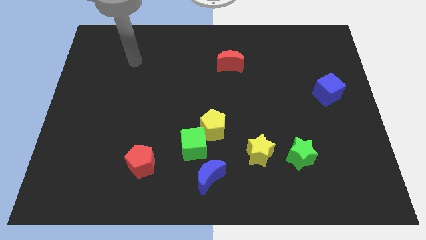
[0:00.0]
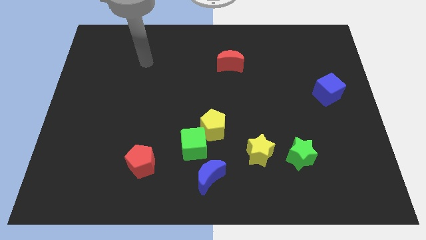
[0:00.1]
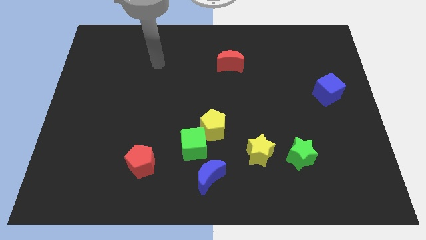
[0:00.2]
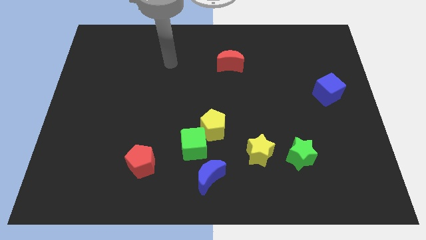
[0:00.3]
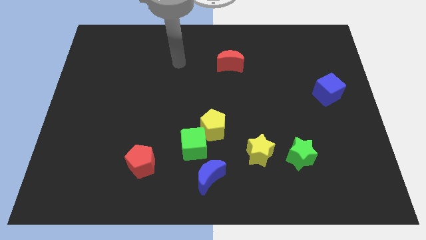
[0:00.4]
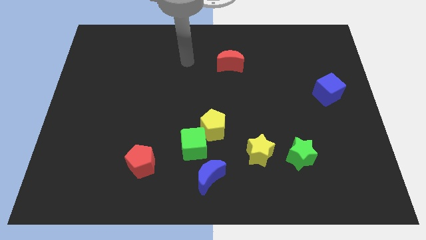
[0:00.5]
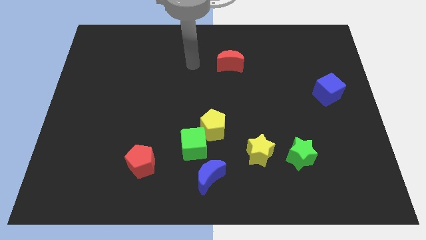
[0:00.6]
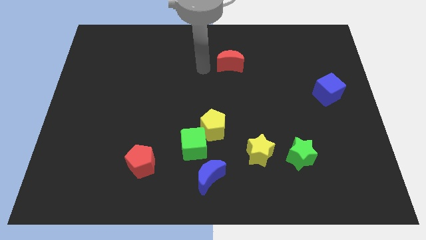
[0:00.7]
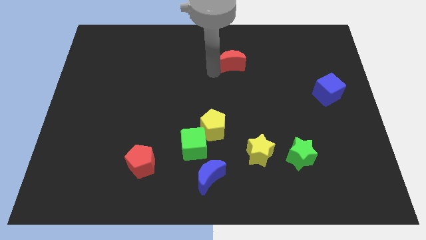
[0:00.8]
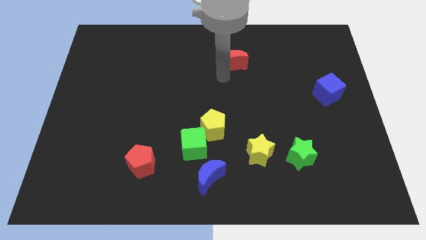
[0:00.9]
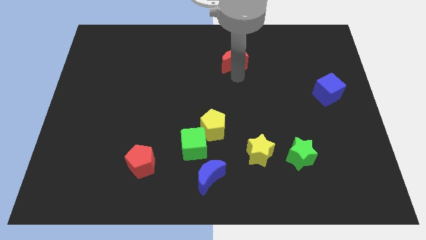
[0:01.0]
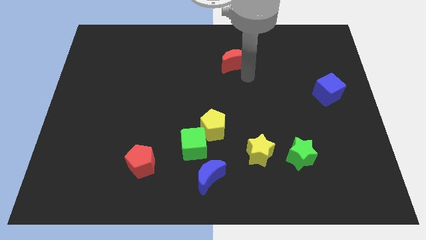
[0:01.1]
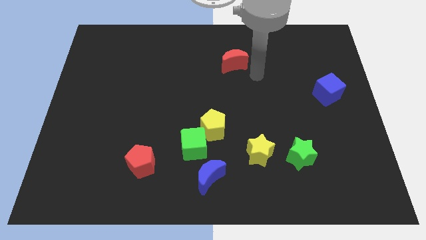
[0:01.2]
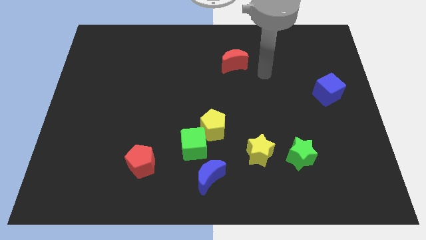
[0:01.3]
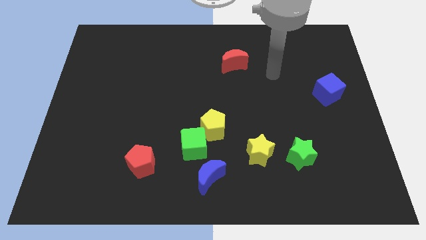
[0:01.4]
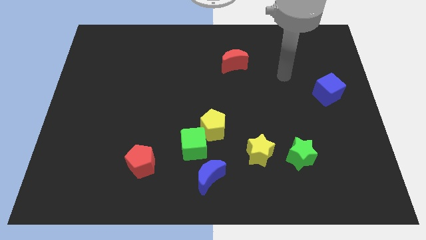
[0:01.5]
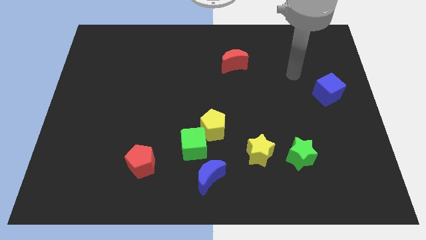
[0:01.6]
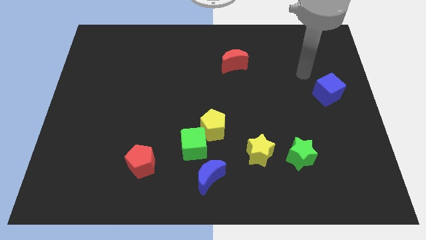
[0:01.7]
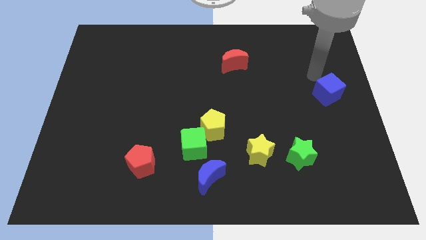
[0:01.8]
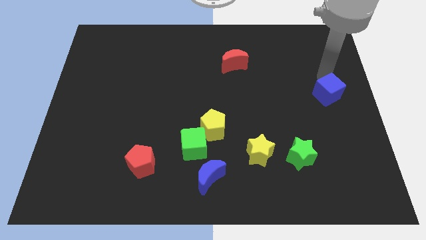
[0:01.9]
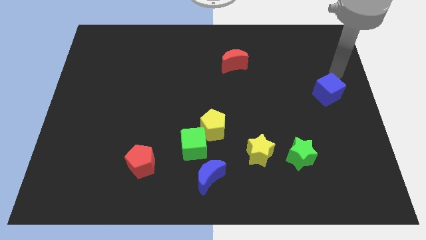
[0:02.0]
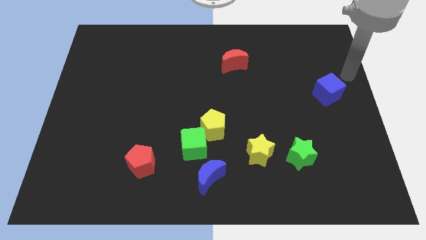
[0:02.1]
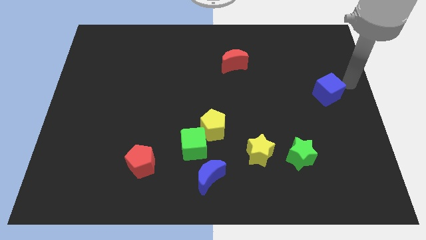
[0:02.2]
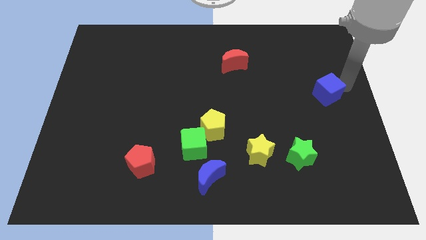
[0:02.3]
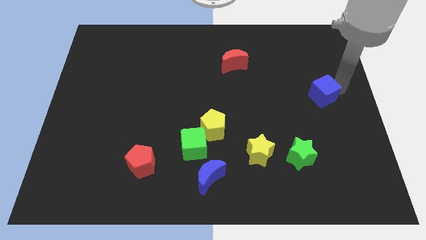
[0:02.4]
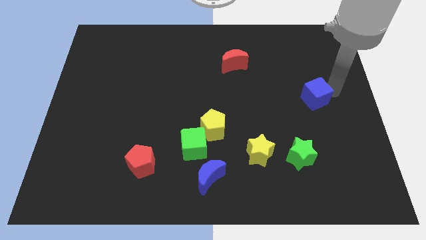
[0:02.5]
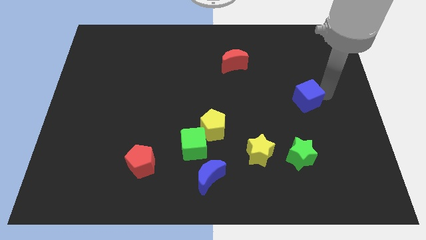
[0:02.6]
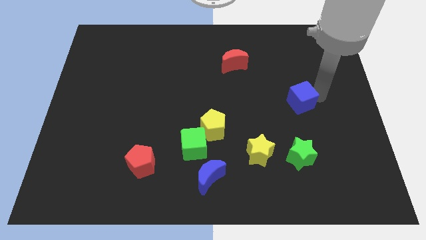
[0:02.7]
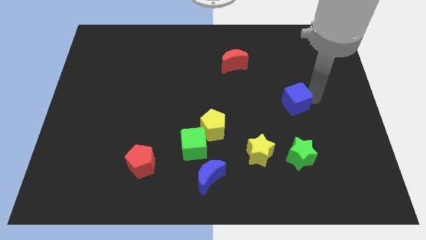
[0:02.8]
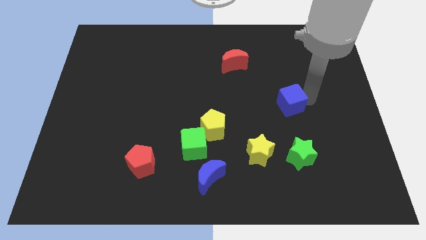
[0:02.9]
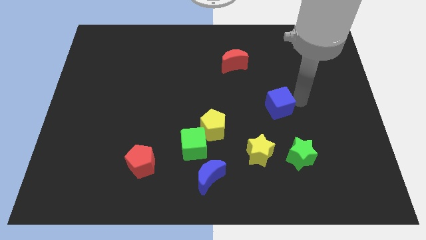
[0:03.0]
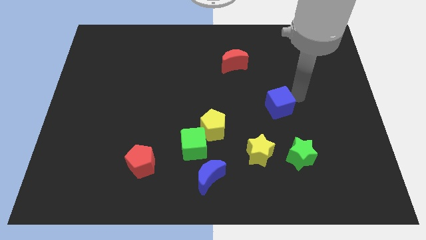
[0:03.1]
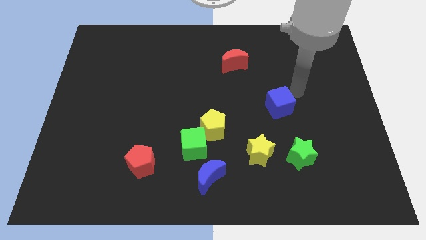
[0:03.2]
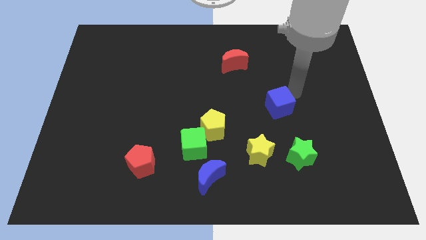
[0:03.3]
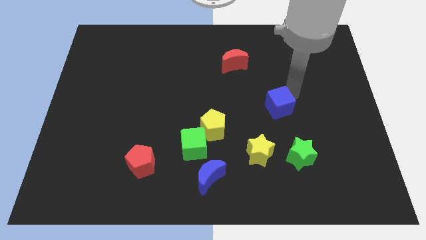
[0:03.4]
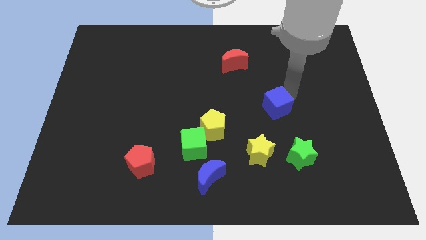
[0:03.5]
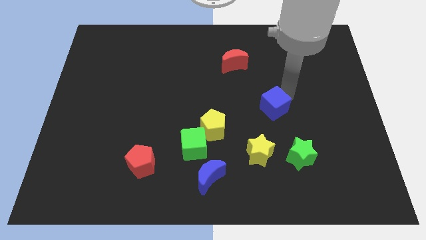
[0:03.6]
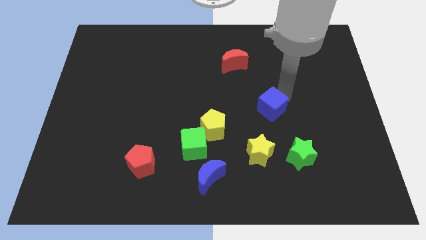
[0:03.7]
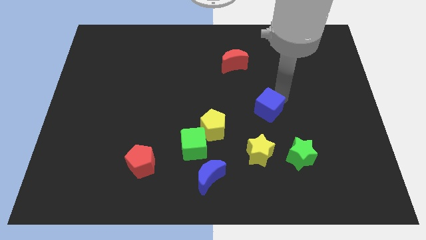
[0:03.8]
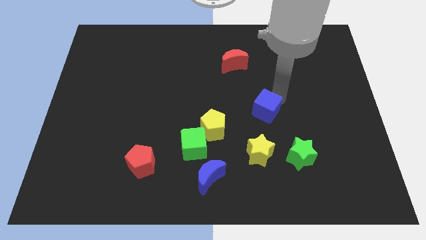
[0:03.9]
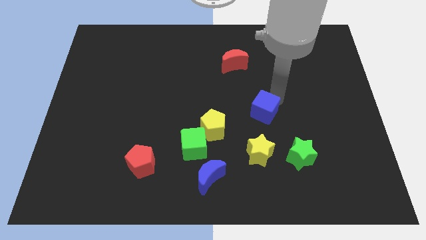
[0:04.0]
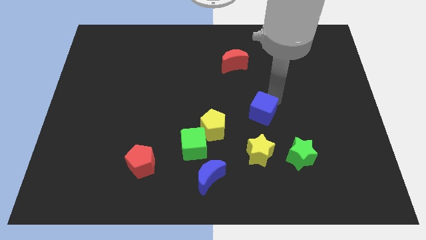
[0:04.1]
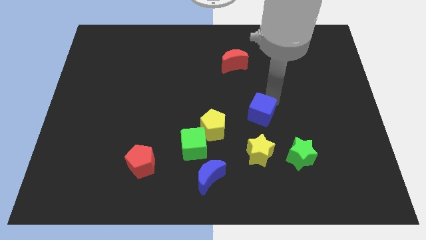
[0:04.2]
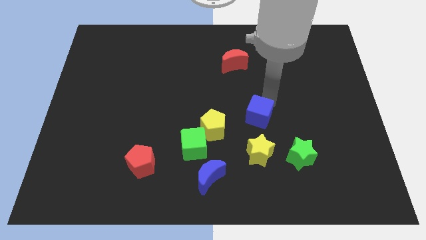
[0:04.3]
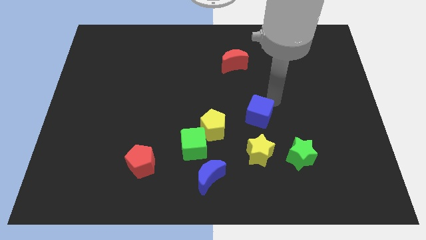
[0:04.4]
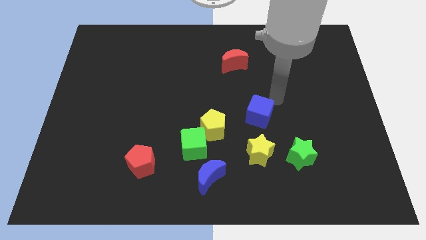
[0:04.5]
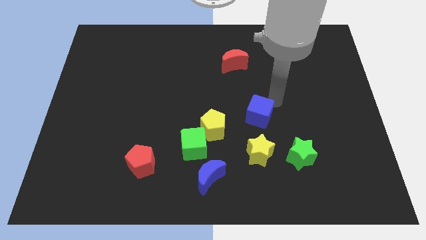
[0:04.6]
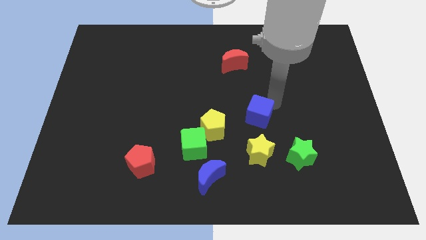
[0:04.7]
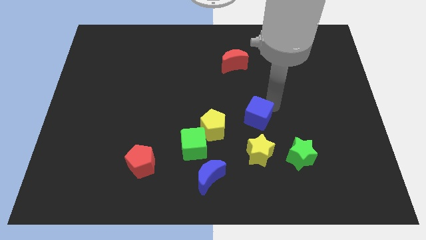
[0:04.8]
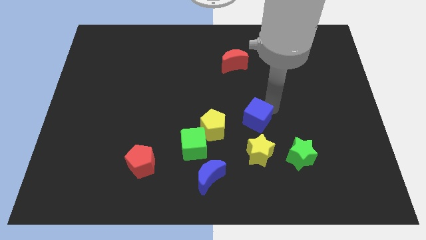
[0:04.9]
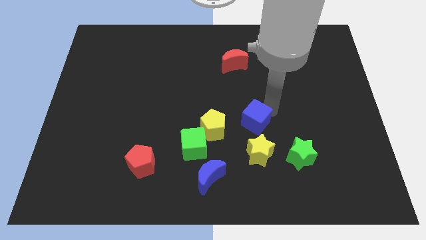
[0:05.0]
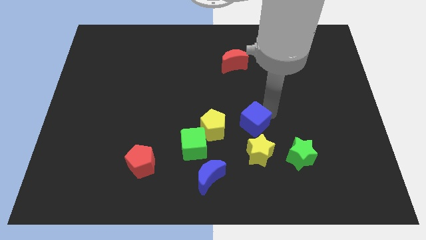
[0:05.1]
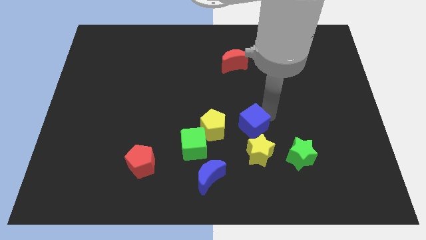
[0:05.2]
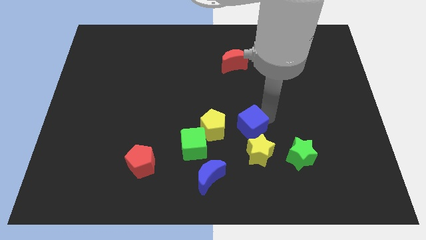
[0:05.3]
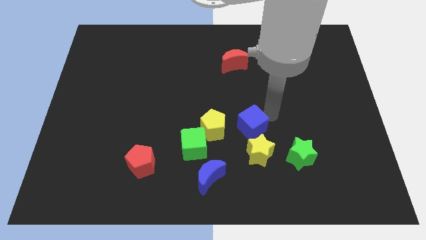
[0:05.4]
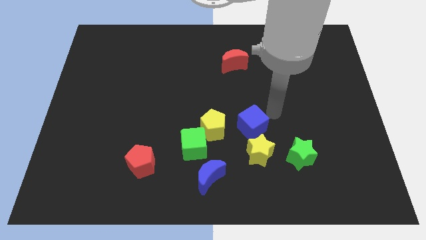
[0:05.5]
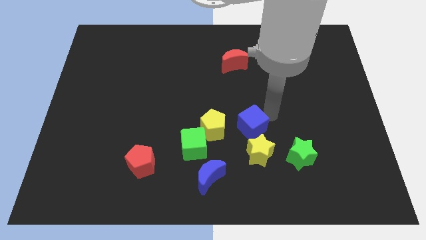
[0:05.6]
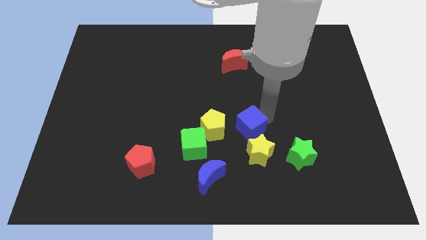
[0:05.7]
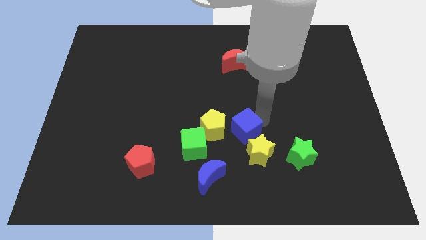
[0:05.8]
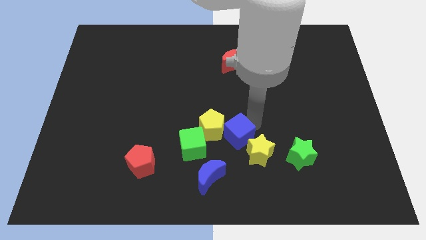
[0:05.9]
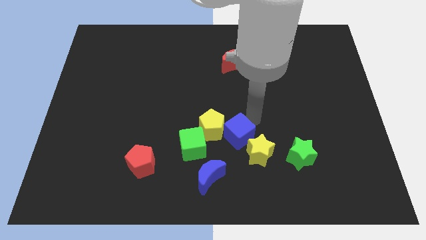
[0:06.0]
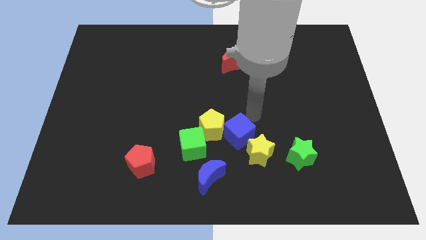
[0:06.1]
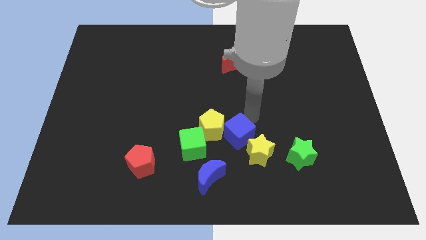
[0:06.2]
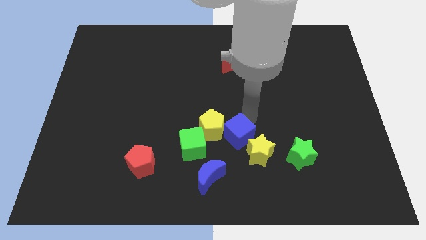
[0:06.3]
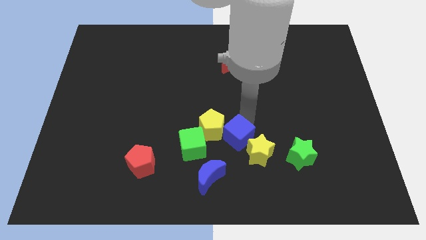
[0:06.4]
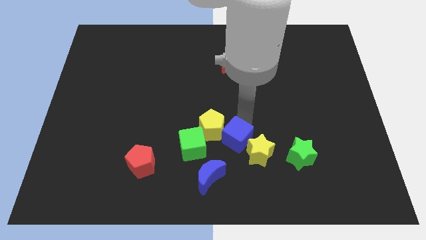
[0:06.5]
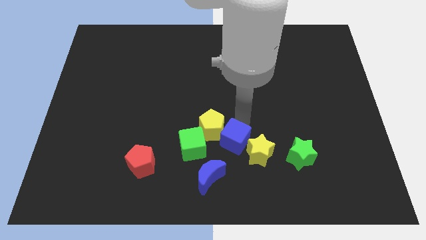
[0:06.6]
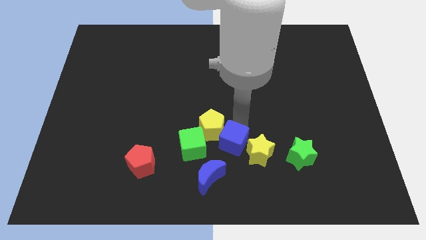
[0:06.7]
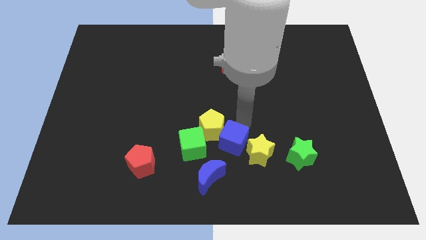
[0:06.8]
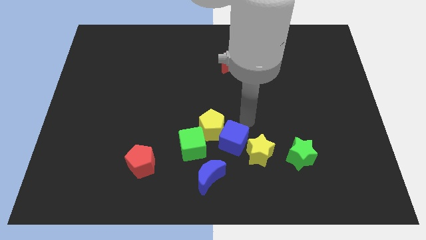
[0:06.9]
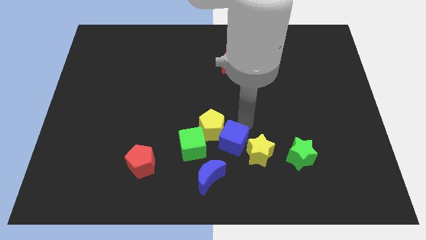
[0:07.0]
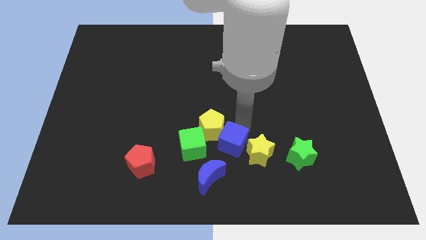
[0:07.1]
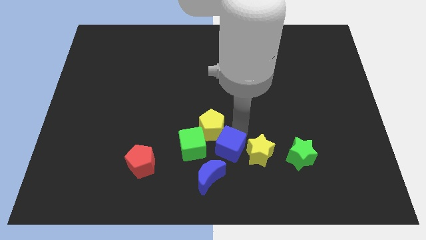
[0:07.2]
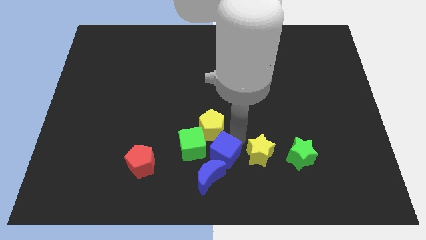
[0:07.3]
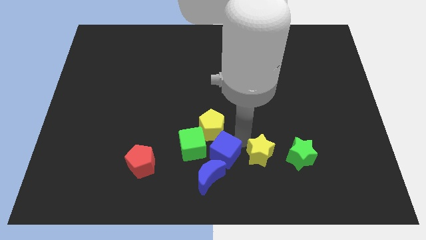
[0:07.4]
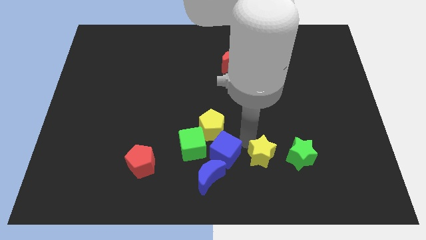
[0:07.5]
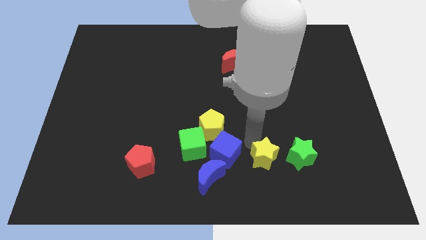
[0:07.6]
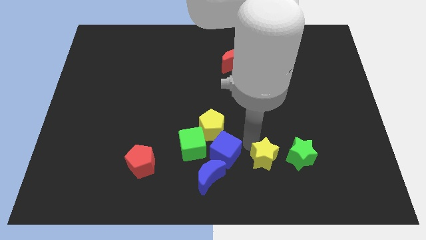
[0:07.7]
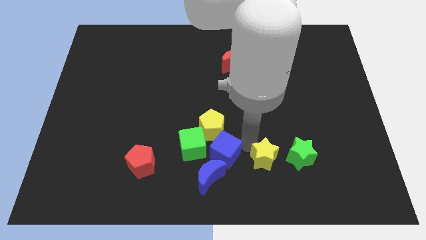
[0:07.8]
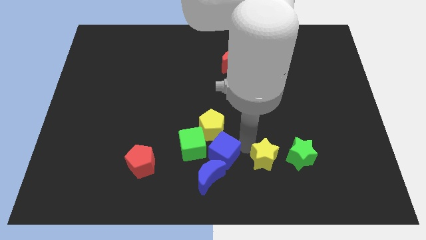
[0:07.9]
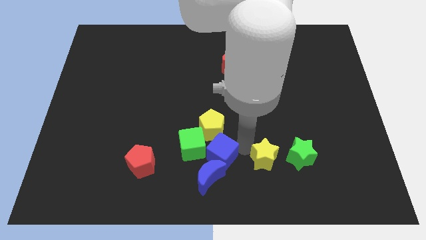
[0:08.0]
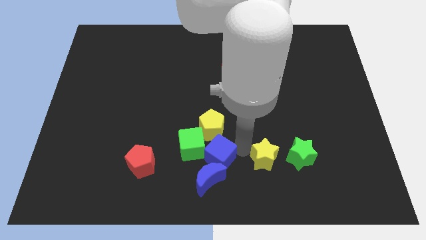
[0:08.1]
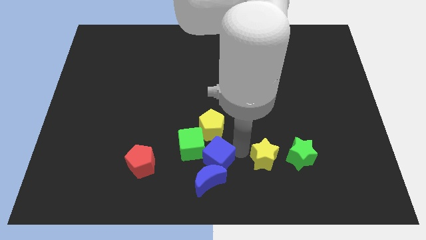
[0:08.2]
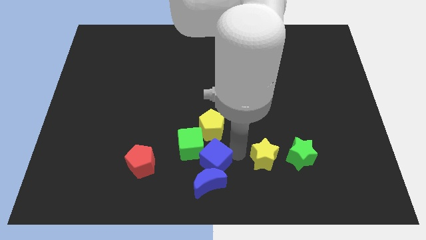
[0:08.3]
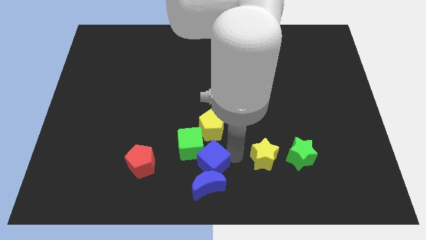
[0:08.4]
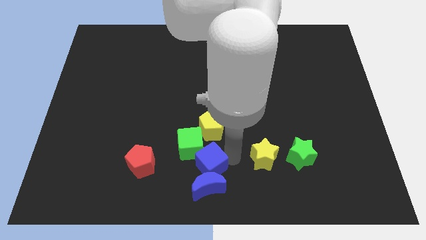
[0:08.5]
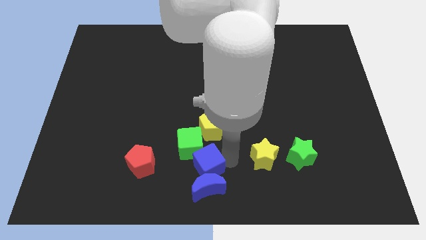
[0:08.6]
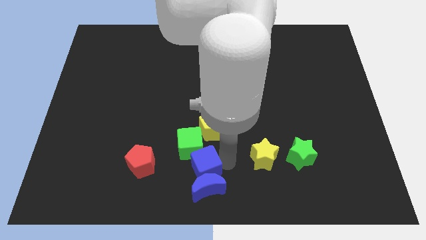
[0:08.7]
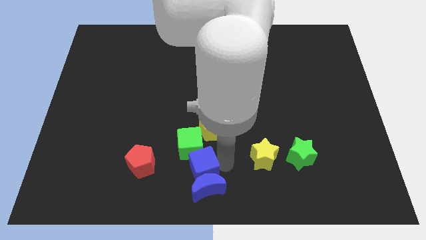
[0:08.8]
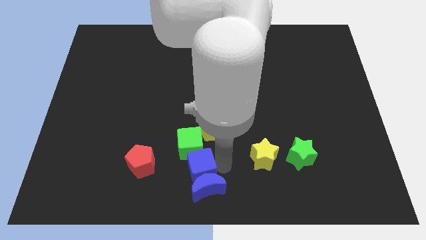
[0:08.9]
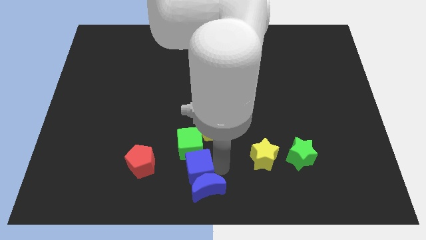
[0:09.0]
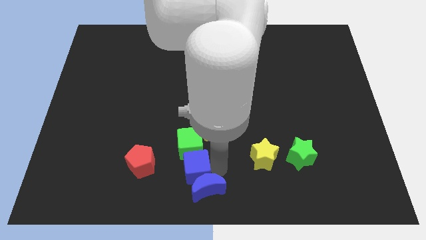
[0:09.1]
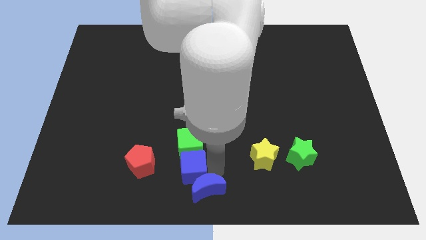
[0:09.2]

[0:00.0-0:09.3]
put the blue cube to the bottom left side of the yellow pentagon
